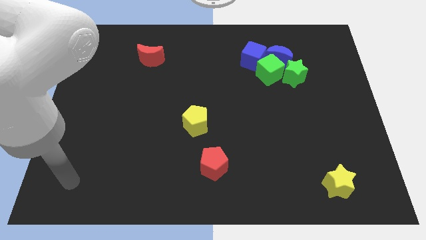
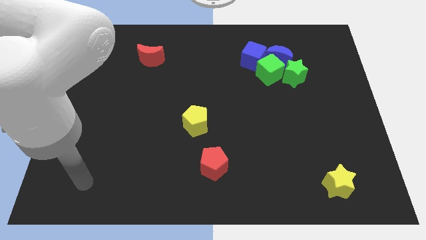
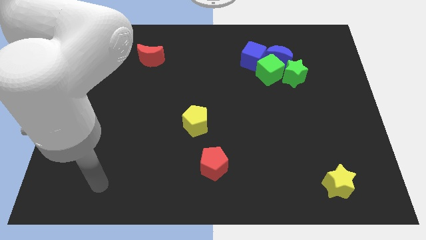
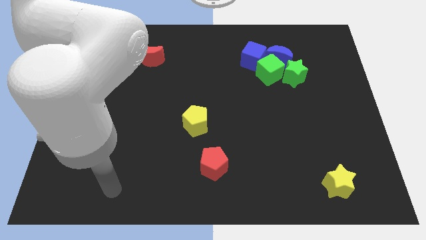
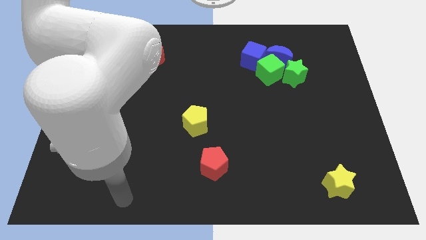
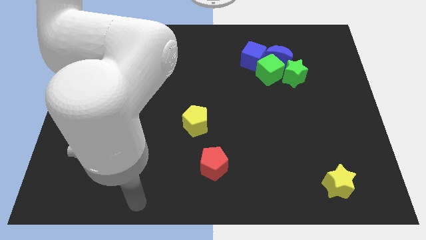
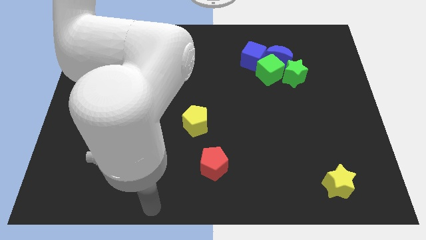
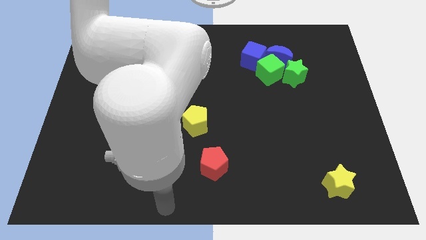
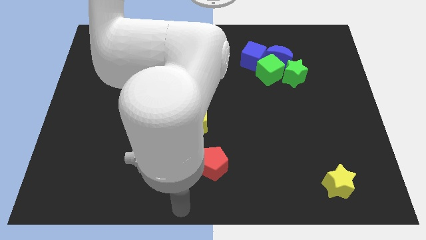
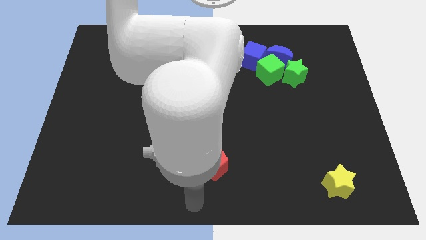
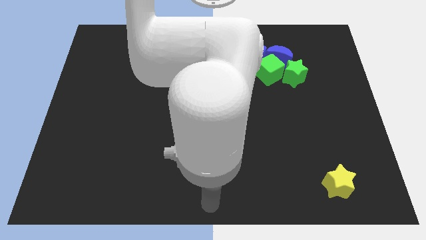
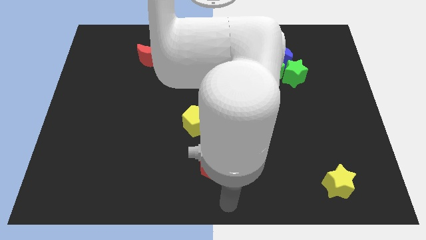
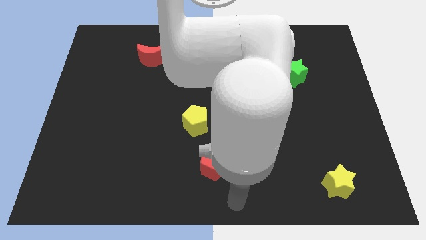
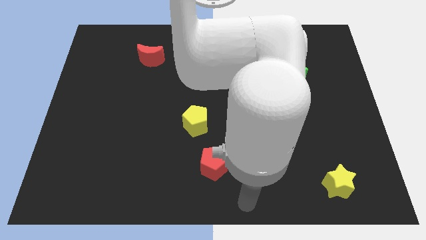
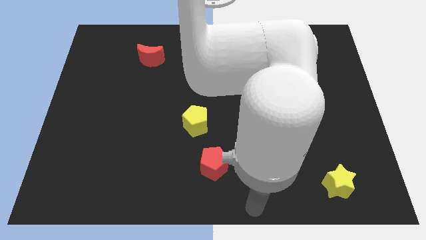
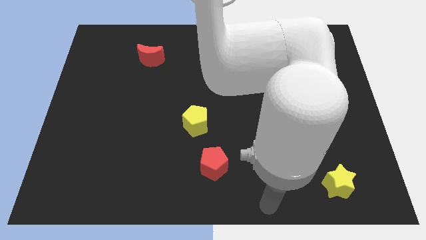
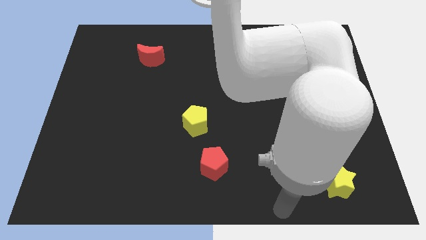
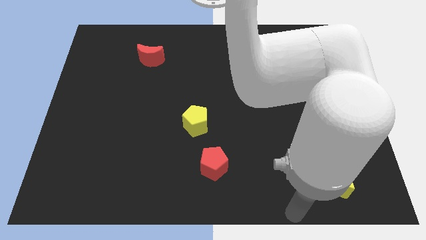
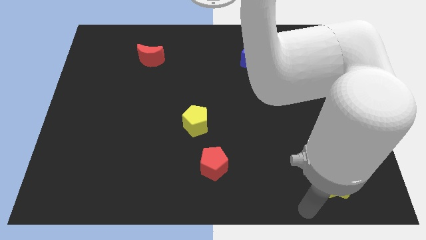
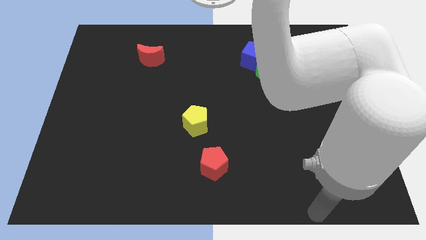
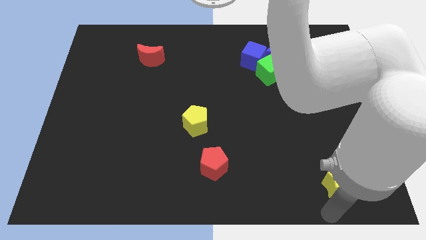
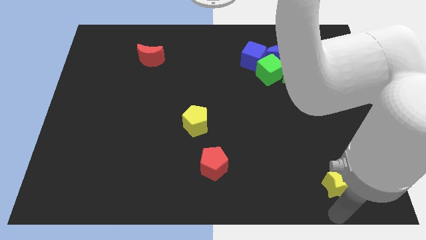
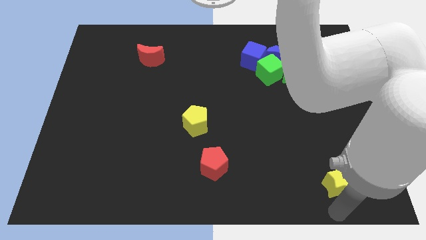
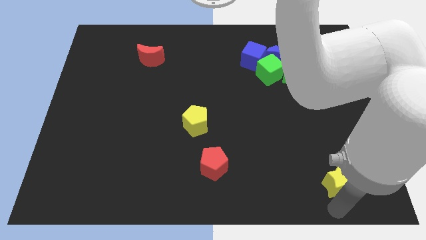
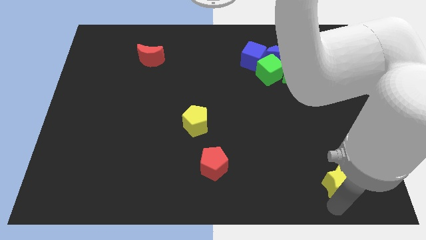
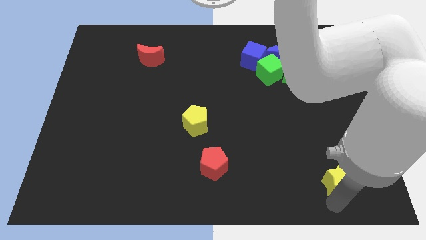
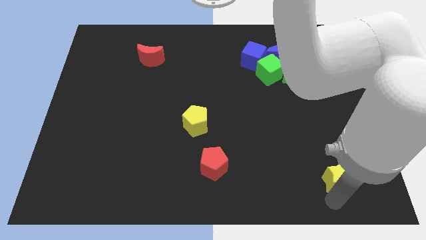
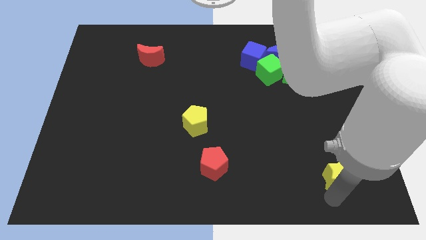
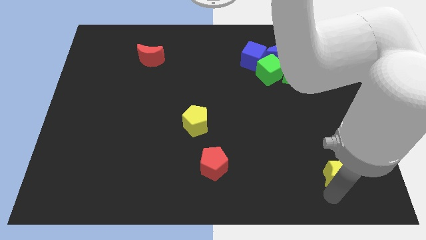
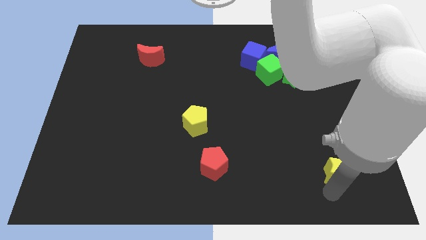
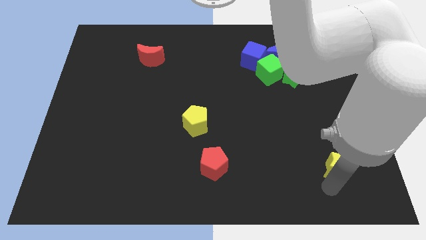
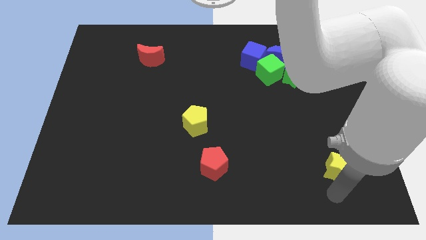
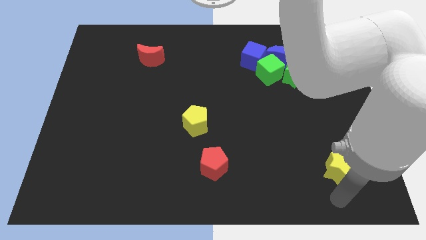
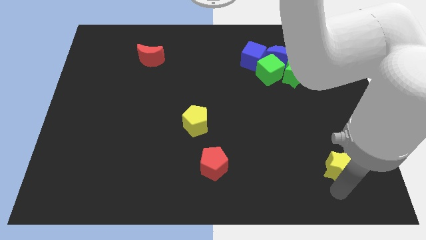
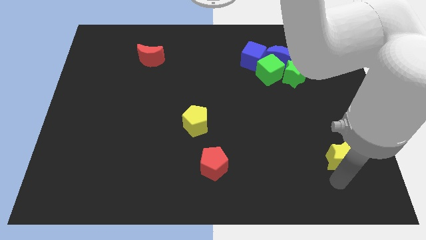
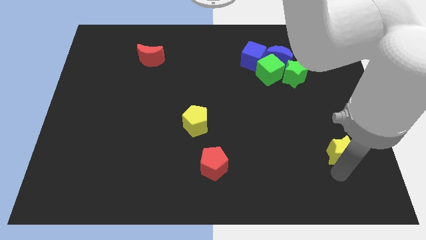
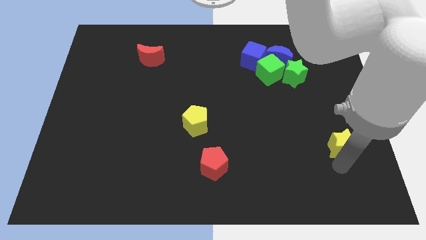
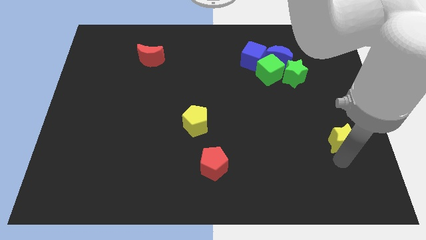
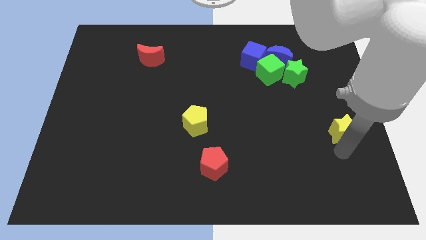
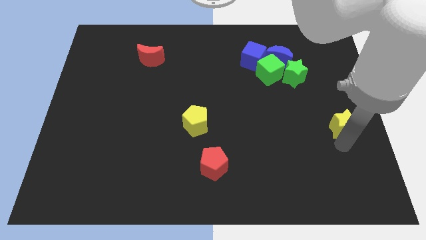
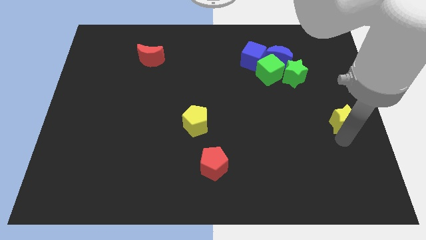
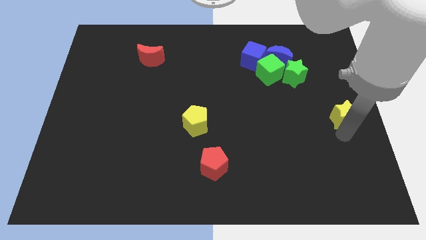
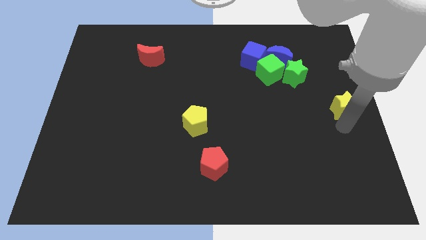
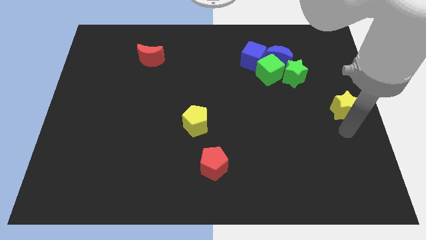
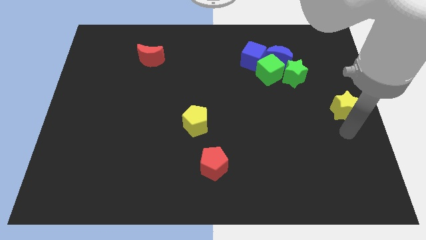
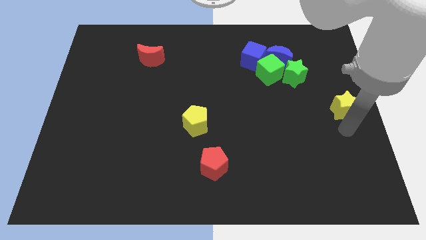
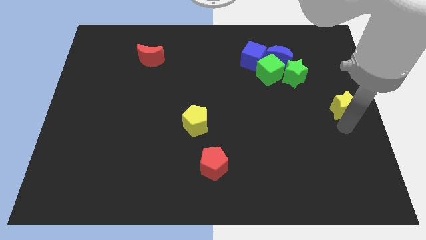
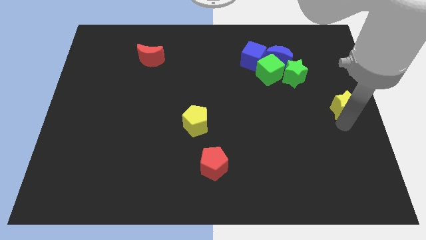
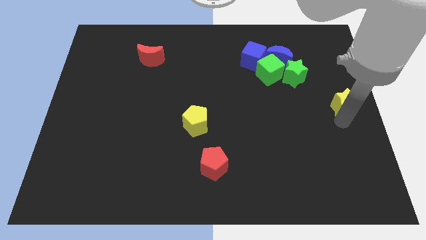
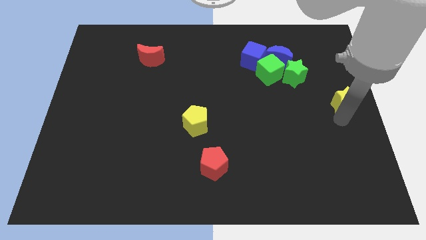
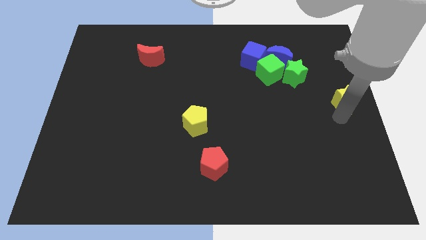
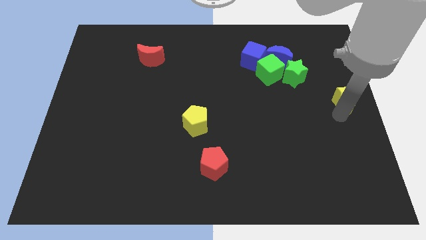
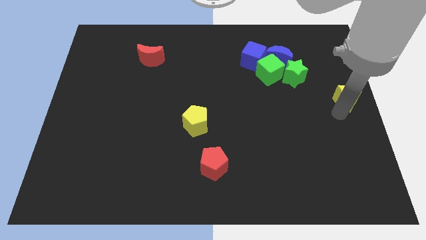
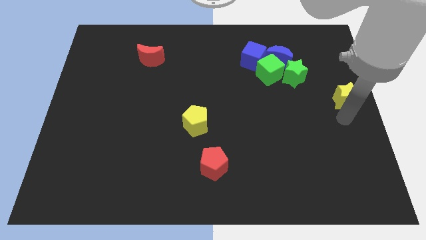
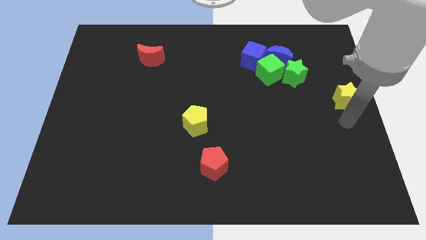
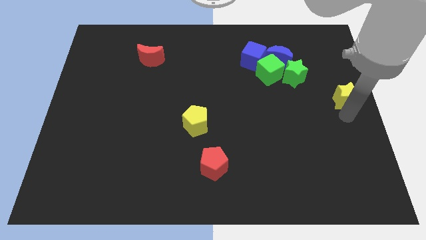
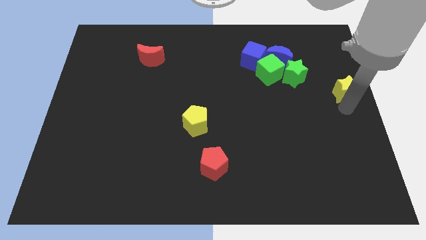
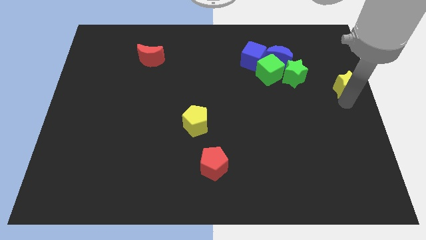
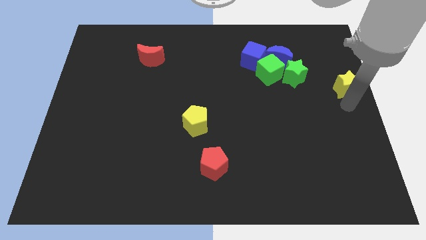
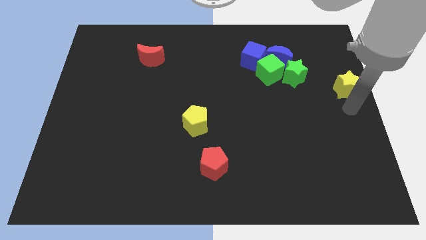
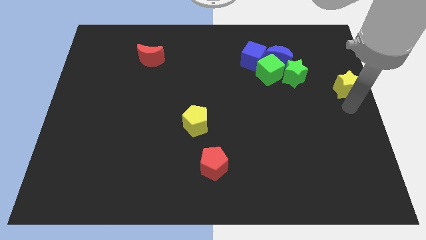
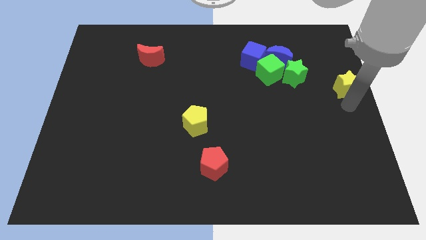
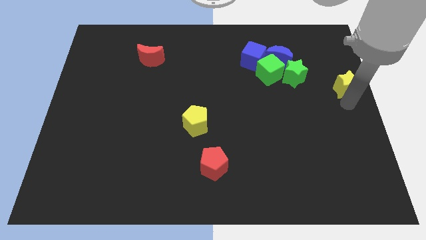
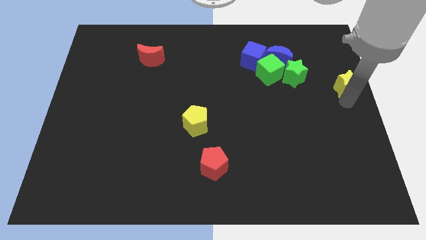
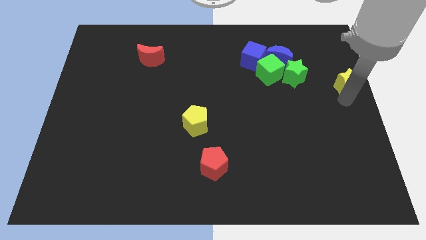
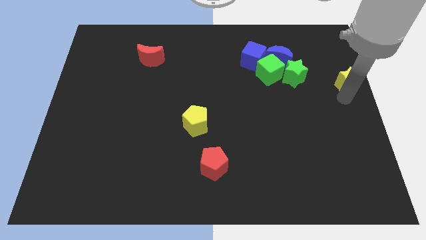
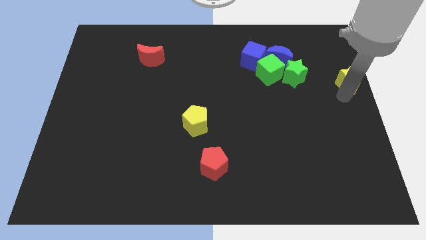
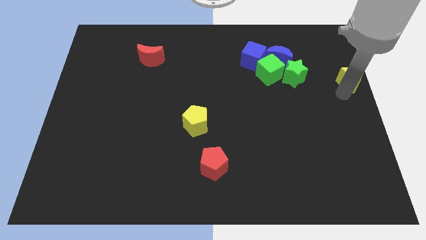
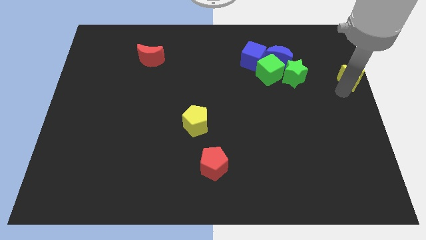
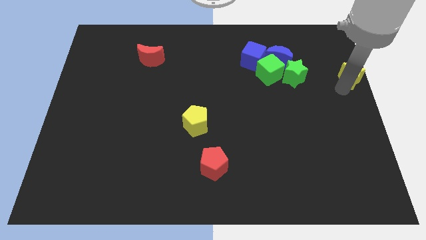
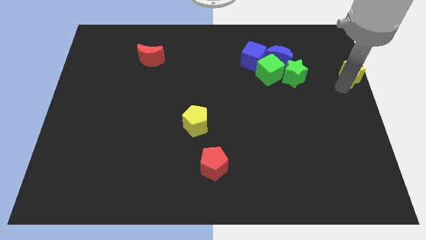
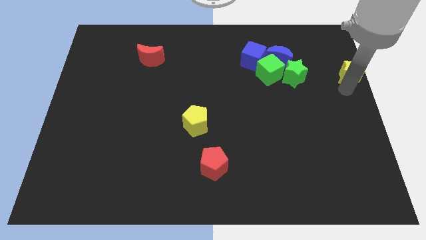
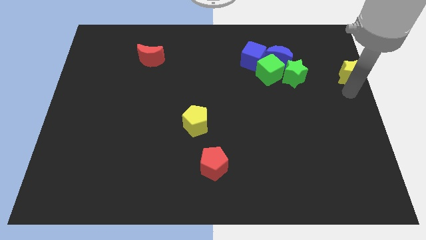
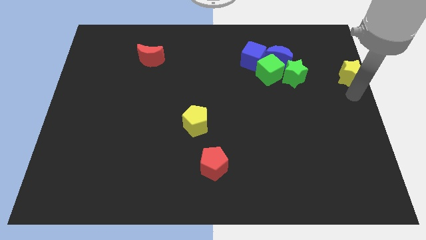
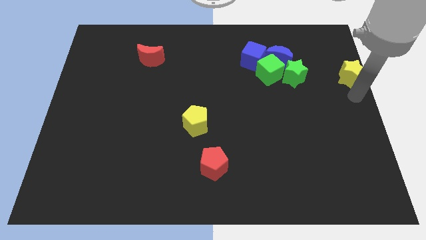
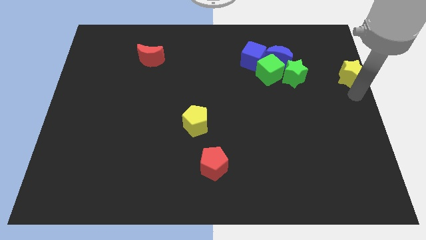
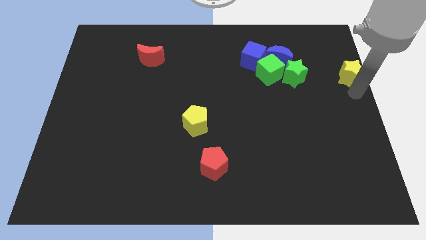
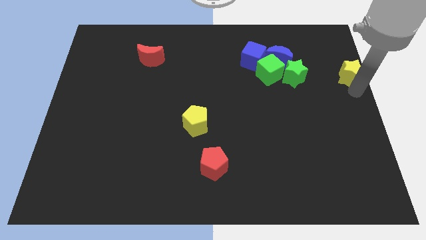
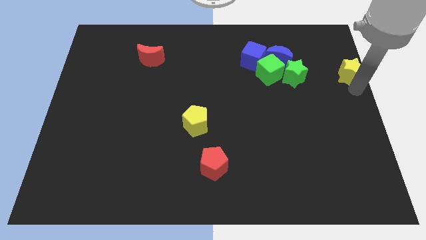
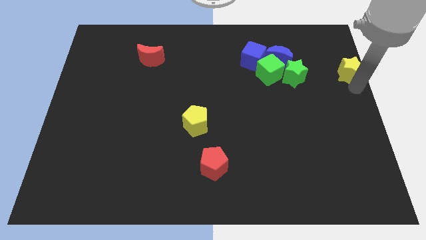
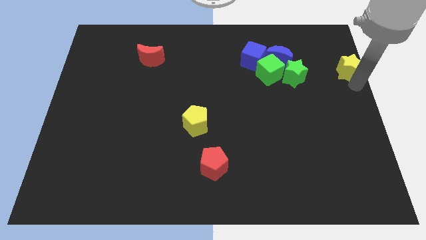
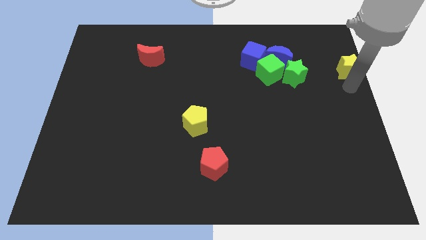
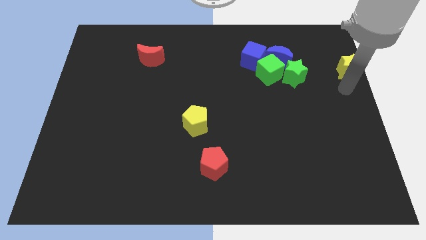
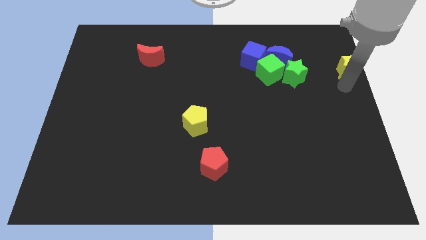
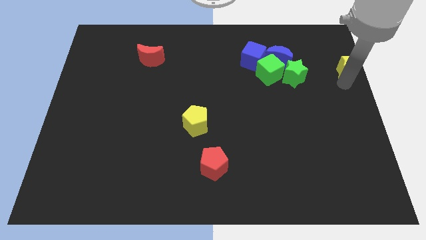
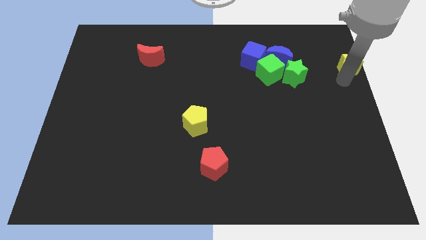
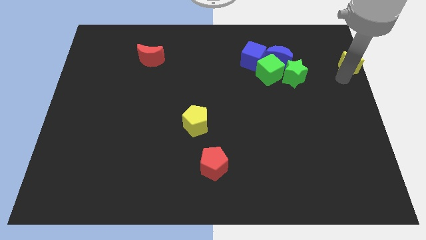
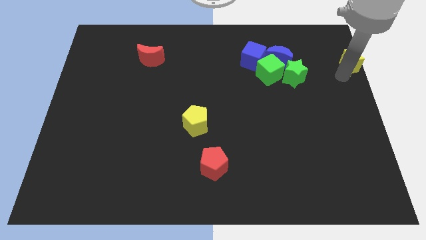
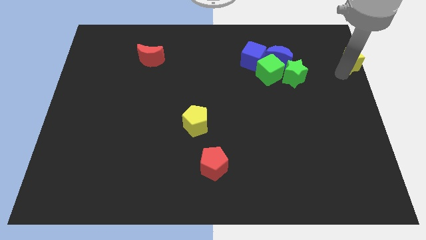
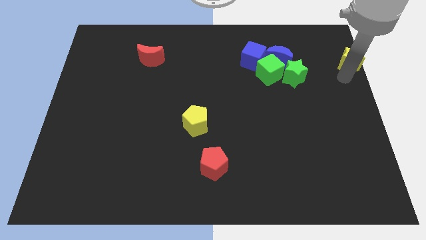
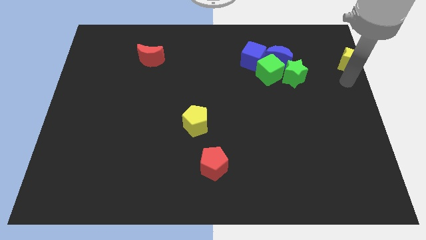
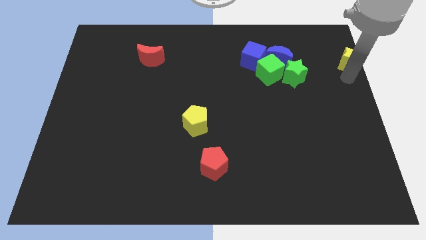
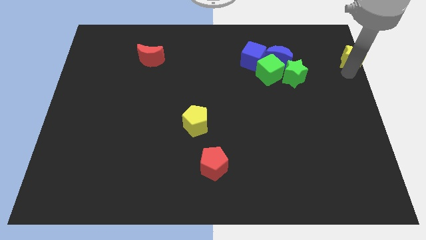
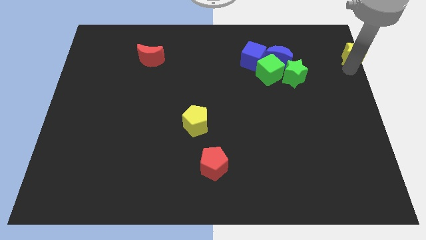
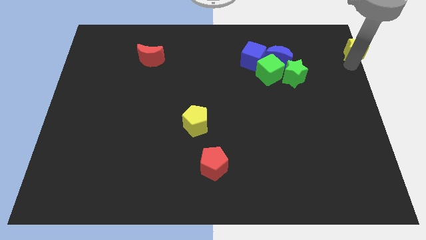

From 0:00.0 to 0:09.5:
put the yellow star to the upper right corner
